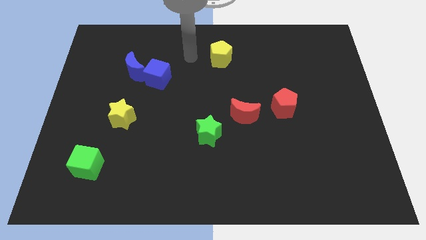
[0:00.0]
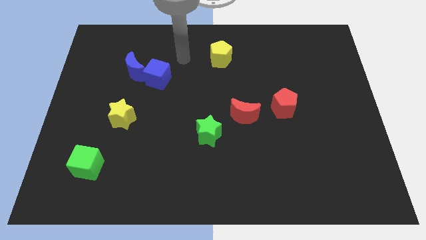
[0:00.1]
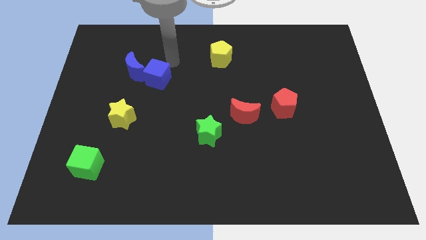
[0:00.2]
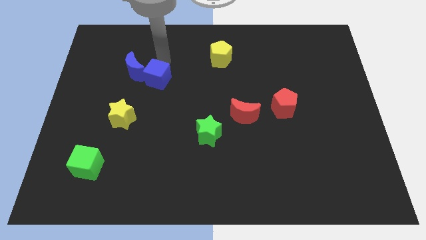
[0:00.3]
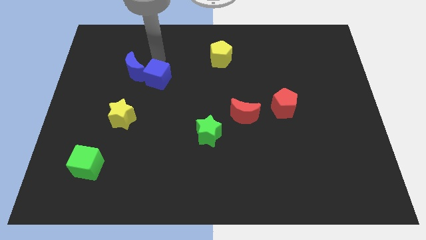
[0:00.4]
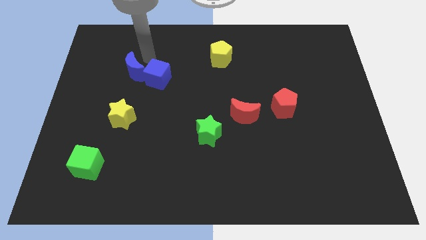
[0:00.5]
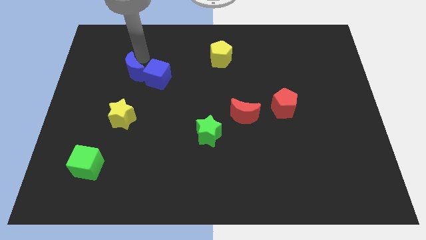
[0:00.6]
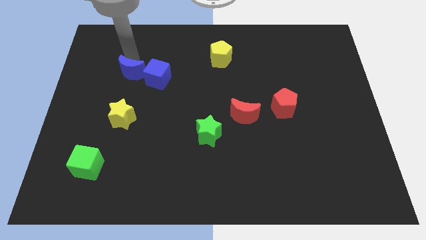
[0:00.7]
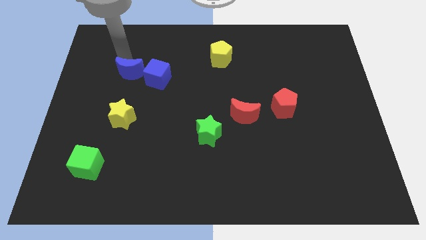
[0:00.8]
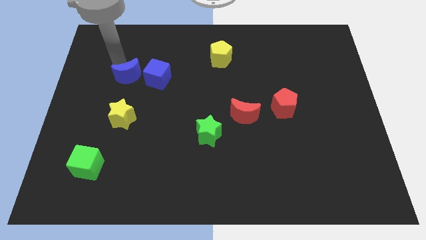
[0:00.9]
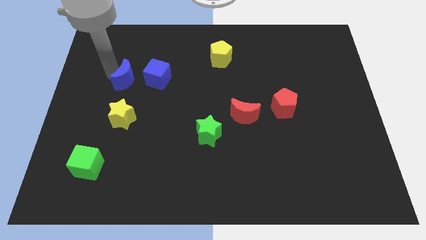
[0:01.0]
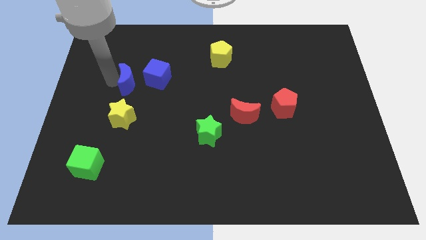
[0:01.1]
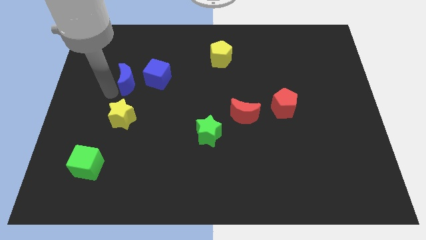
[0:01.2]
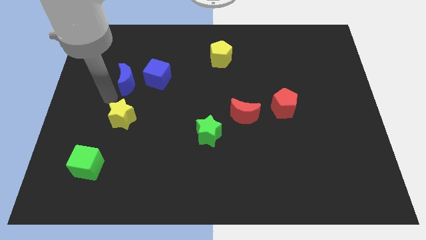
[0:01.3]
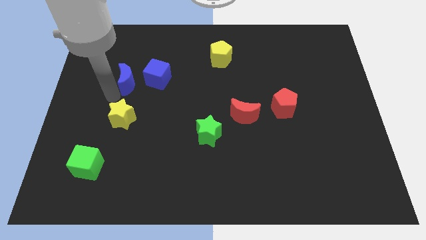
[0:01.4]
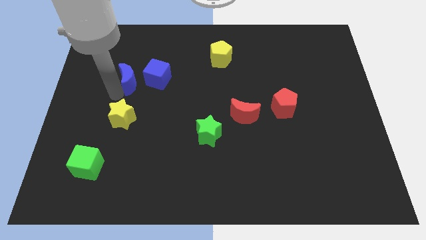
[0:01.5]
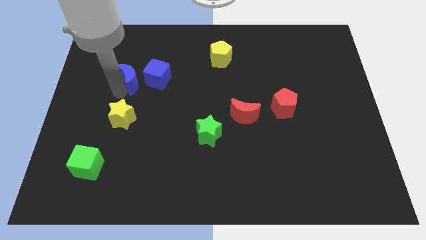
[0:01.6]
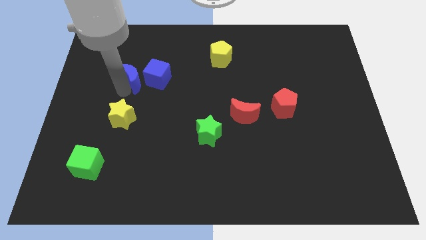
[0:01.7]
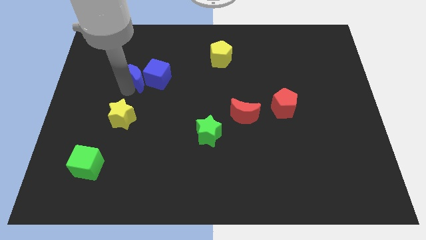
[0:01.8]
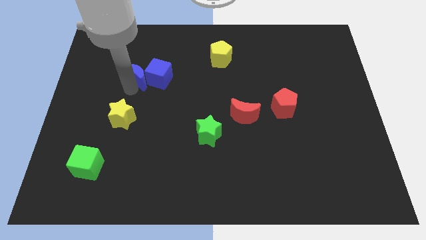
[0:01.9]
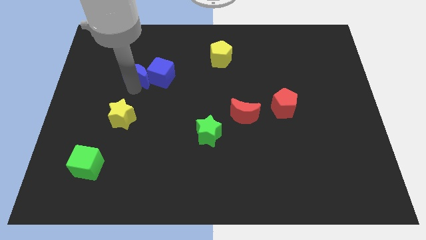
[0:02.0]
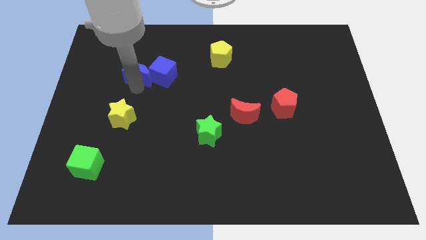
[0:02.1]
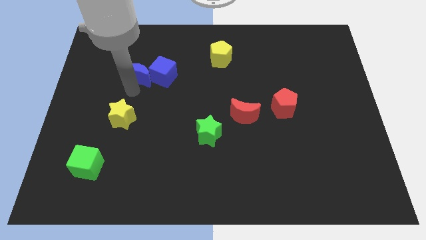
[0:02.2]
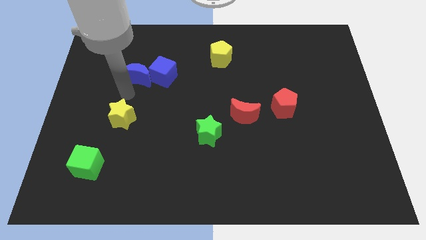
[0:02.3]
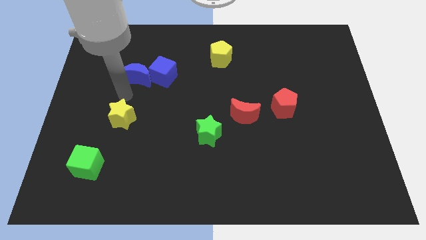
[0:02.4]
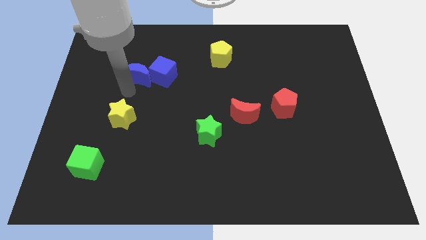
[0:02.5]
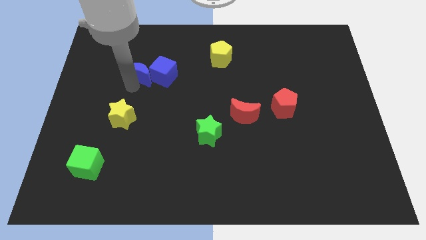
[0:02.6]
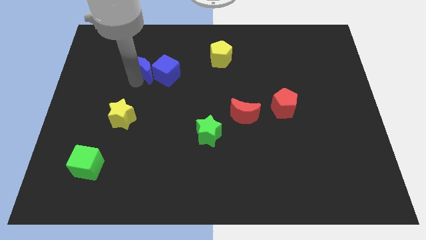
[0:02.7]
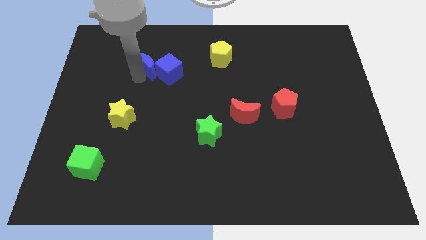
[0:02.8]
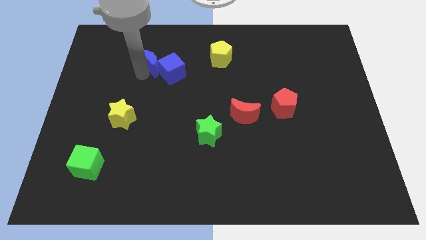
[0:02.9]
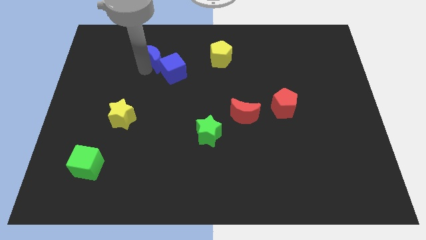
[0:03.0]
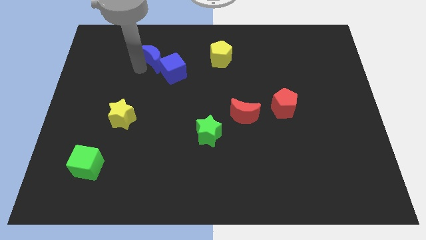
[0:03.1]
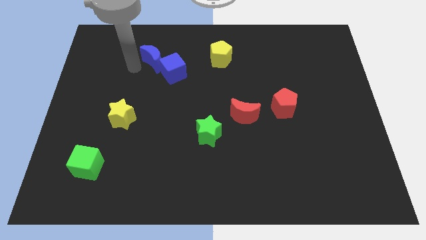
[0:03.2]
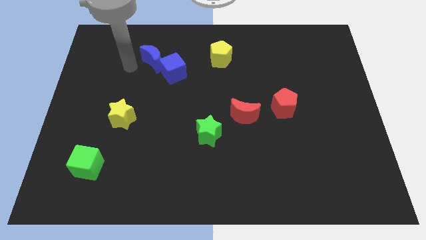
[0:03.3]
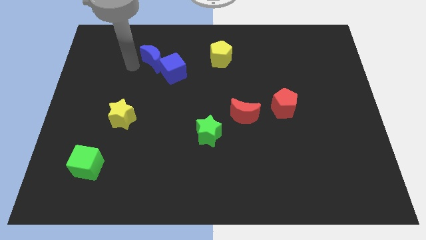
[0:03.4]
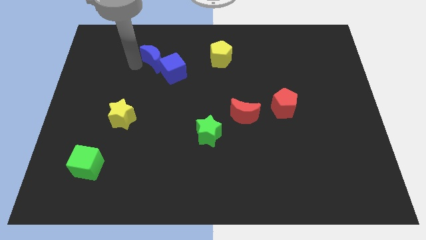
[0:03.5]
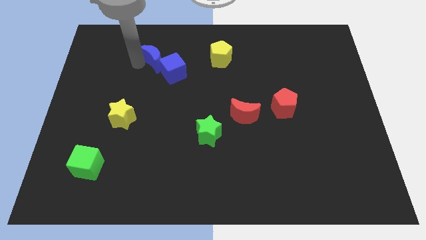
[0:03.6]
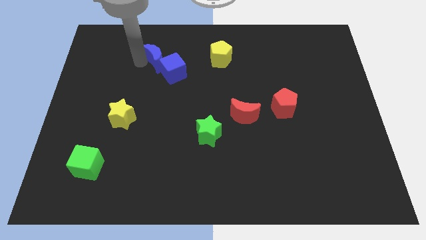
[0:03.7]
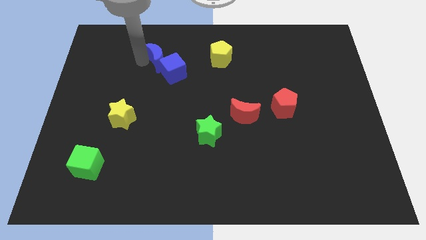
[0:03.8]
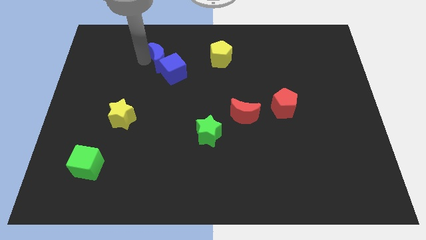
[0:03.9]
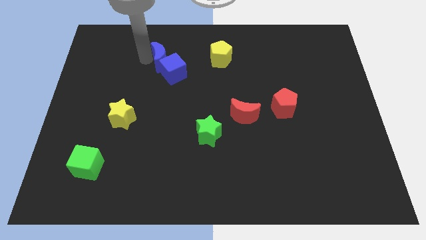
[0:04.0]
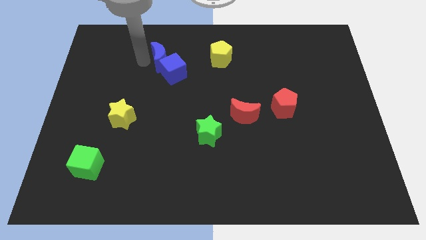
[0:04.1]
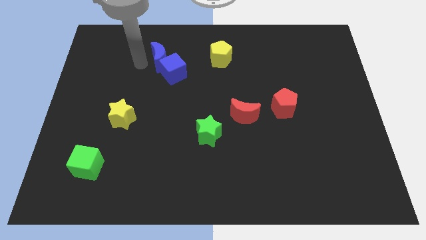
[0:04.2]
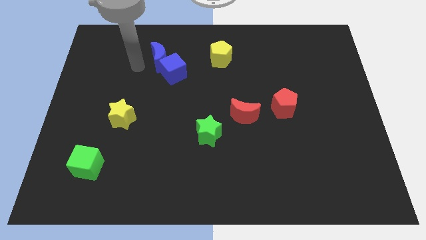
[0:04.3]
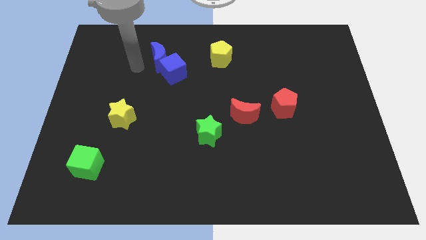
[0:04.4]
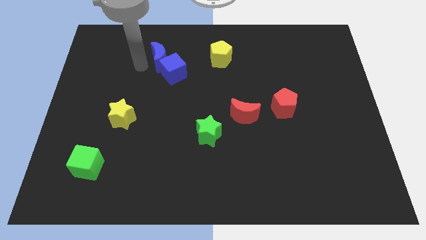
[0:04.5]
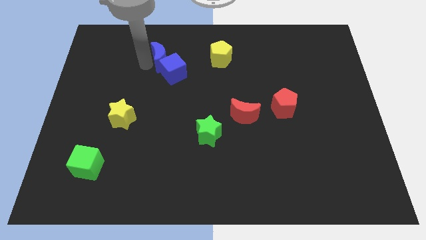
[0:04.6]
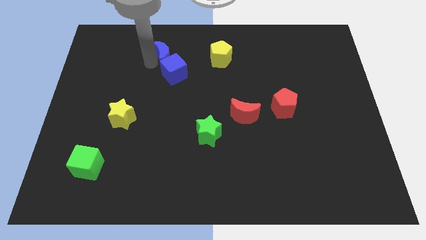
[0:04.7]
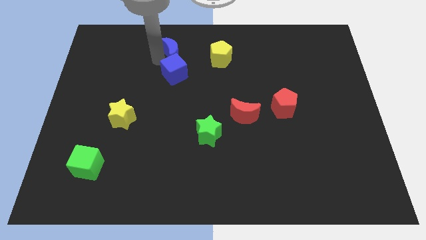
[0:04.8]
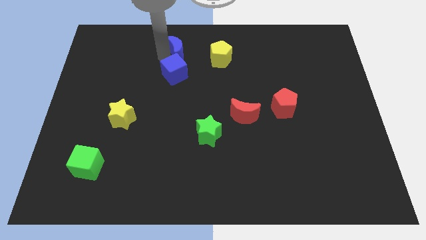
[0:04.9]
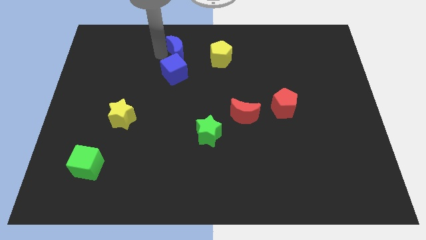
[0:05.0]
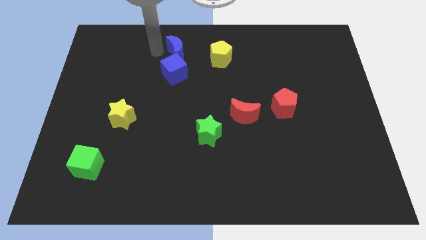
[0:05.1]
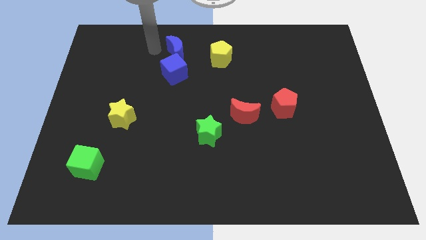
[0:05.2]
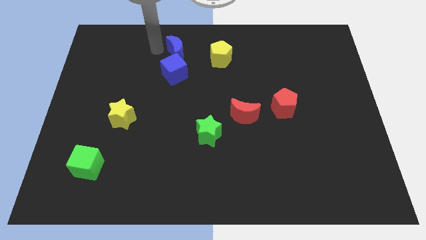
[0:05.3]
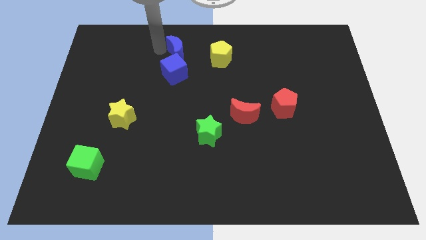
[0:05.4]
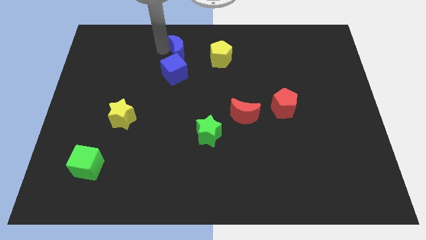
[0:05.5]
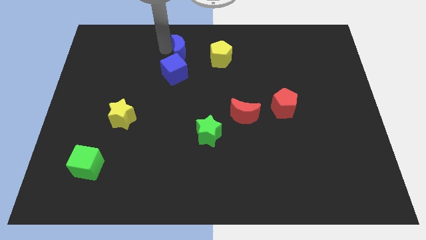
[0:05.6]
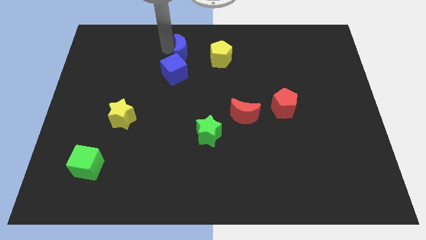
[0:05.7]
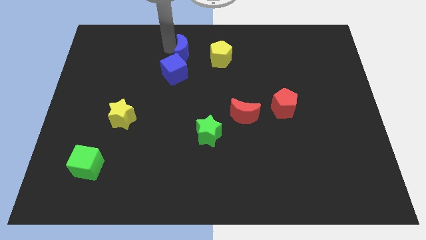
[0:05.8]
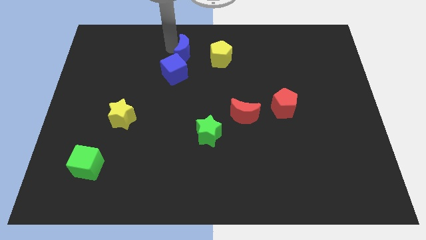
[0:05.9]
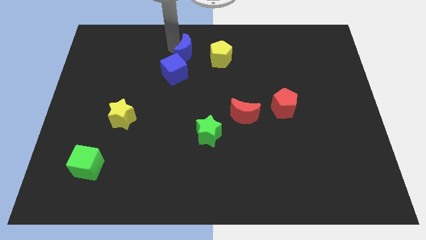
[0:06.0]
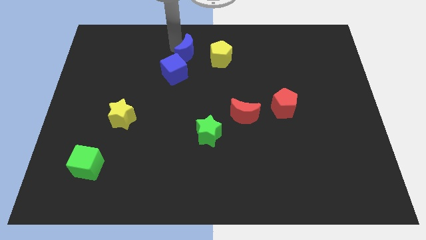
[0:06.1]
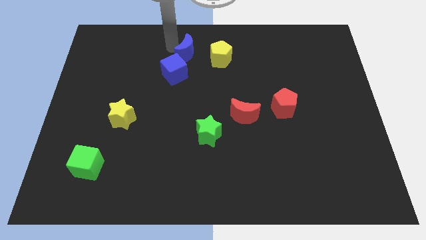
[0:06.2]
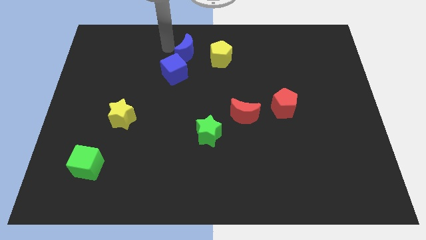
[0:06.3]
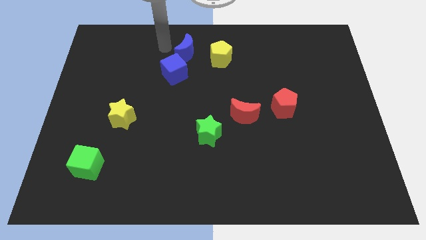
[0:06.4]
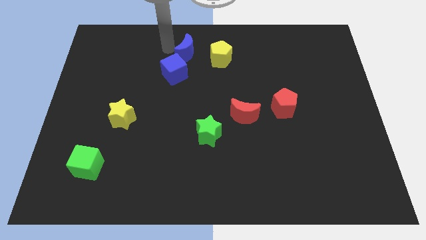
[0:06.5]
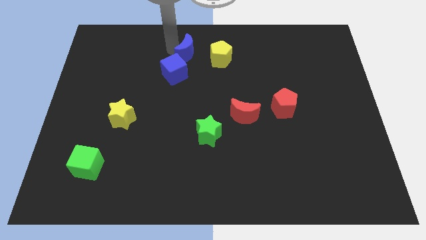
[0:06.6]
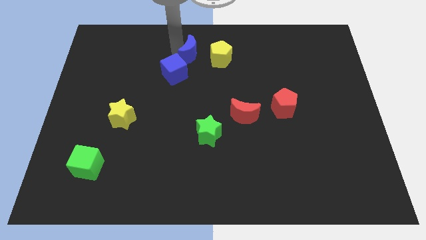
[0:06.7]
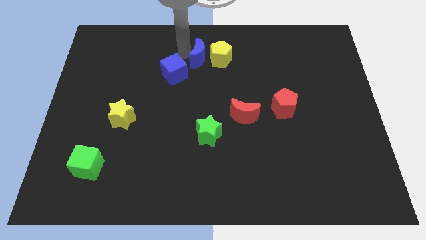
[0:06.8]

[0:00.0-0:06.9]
move the blue moon close to the yellow pentagon
